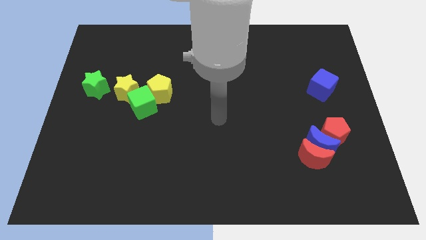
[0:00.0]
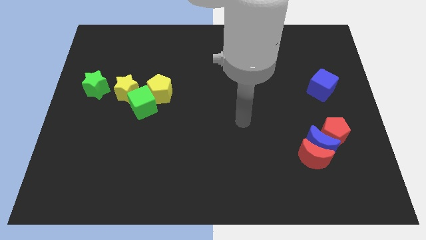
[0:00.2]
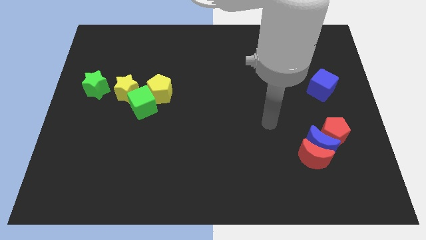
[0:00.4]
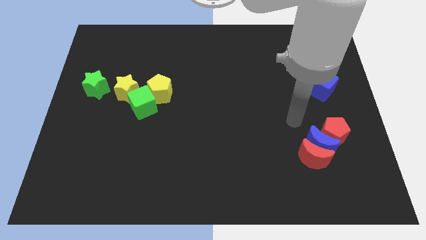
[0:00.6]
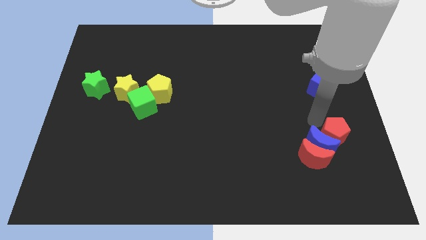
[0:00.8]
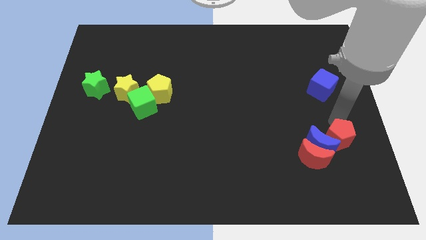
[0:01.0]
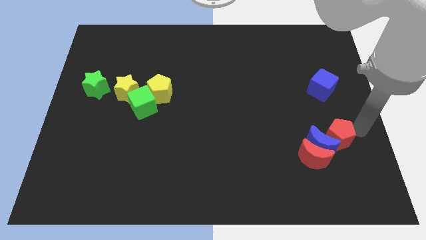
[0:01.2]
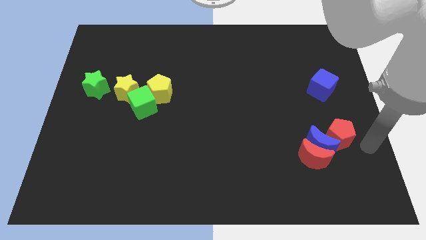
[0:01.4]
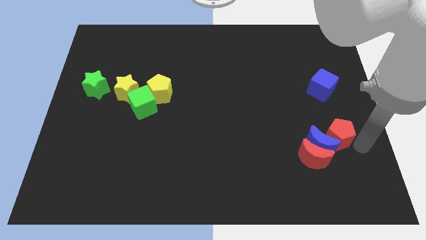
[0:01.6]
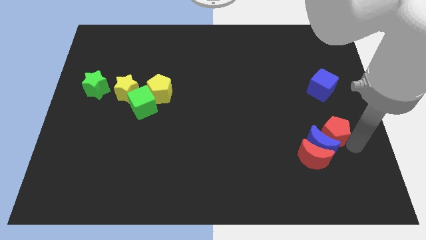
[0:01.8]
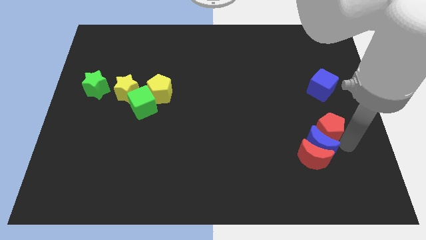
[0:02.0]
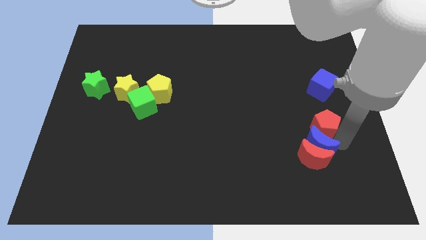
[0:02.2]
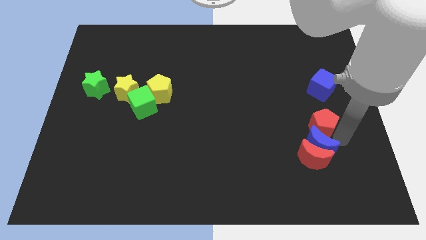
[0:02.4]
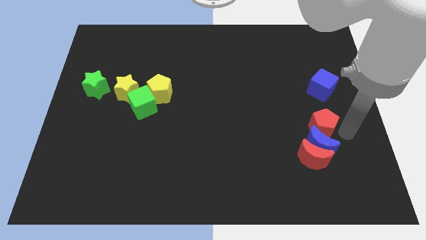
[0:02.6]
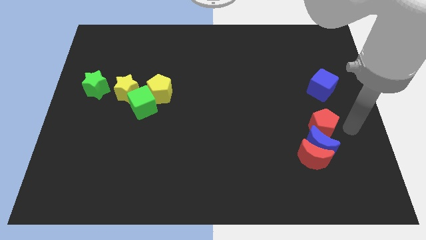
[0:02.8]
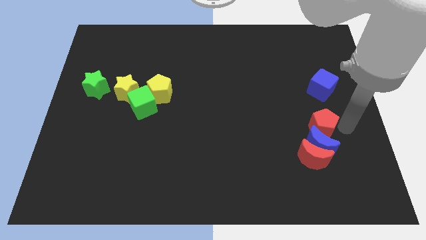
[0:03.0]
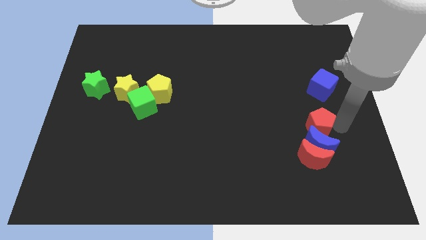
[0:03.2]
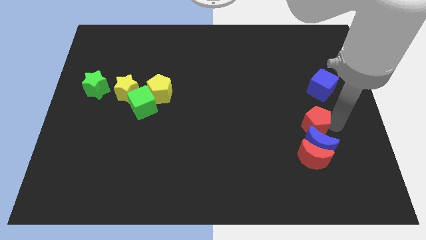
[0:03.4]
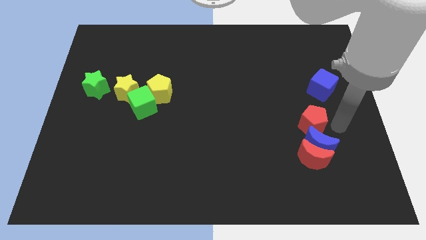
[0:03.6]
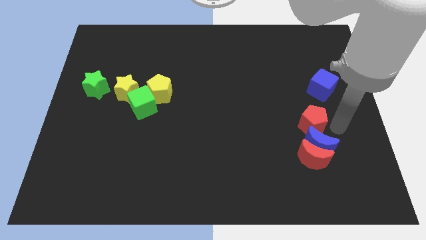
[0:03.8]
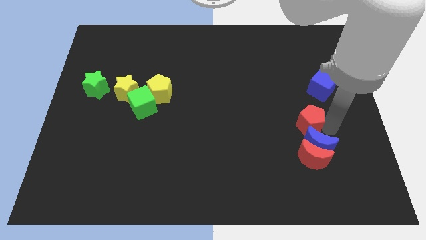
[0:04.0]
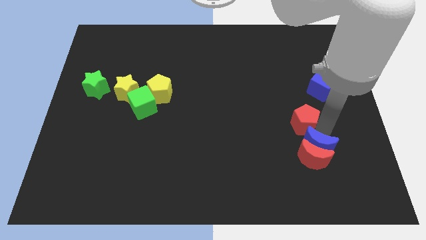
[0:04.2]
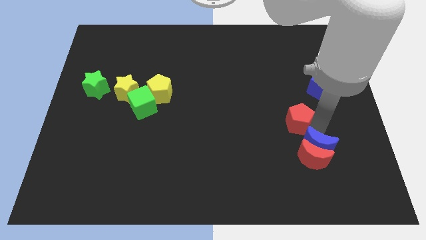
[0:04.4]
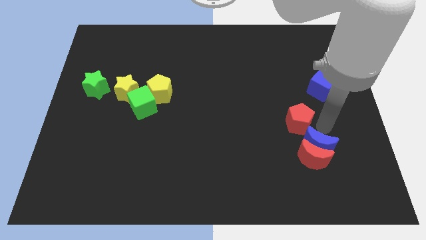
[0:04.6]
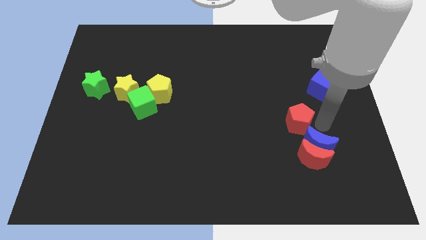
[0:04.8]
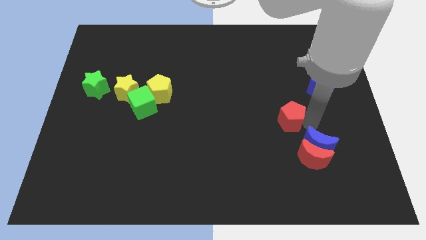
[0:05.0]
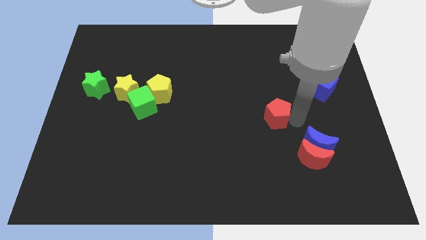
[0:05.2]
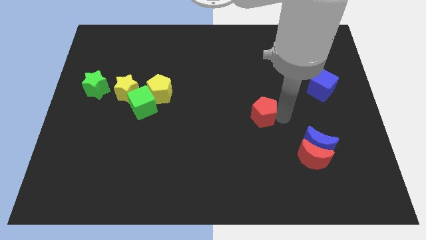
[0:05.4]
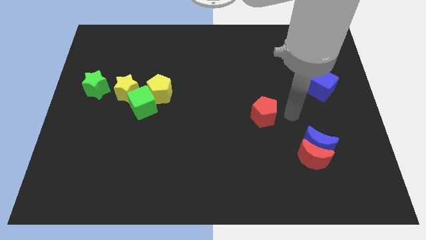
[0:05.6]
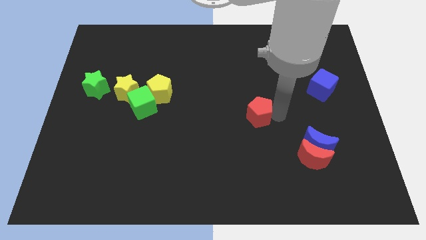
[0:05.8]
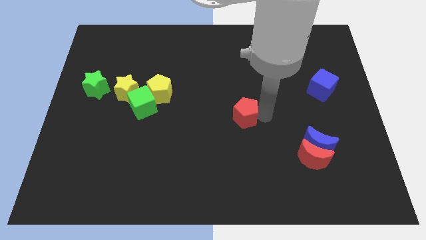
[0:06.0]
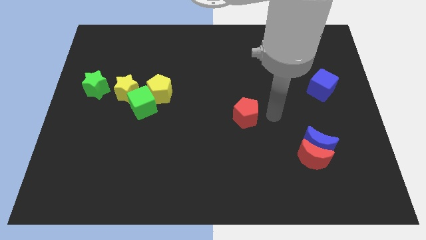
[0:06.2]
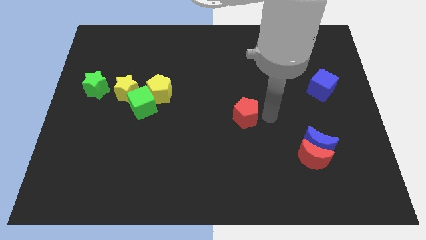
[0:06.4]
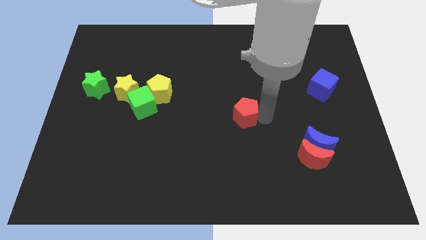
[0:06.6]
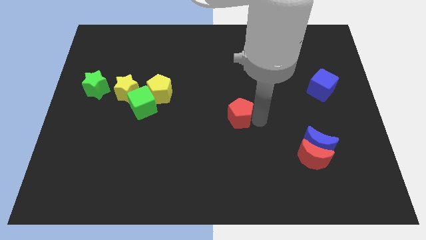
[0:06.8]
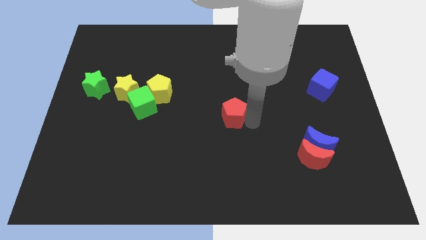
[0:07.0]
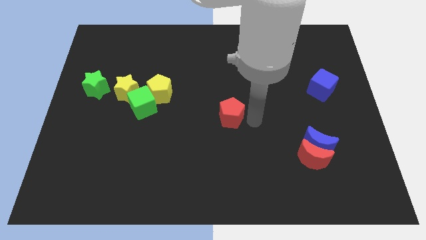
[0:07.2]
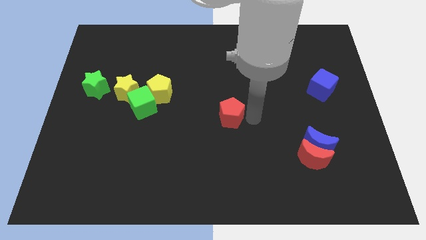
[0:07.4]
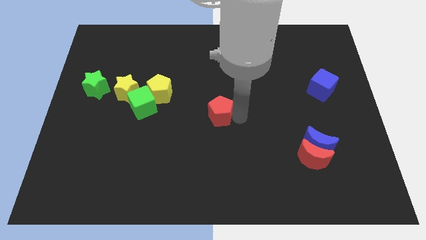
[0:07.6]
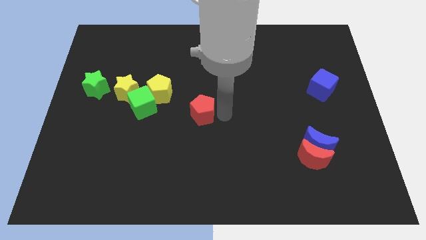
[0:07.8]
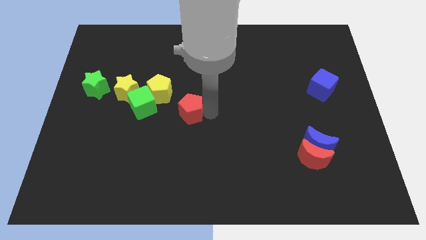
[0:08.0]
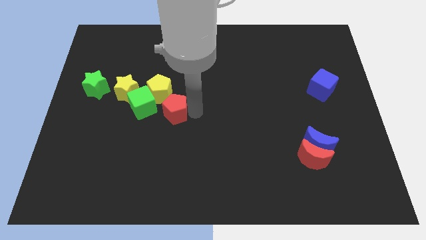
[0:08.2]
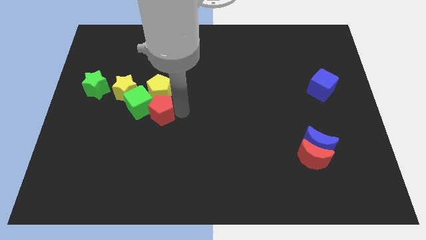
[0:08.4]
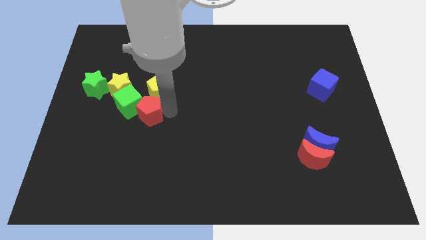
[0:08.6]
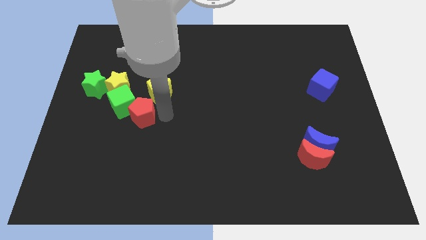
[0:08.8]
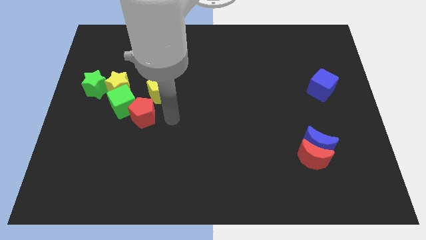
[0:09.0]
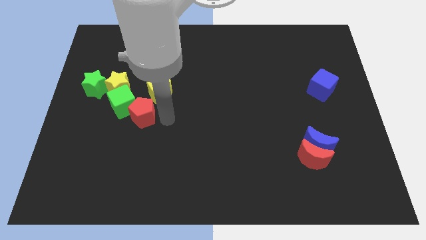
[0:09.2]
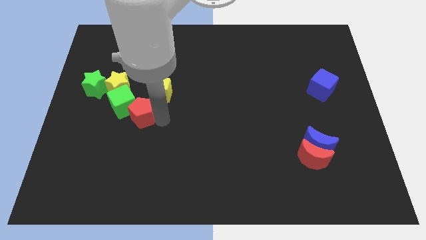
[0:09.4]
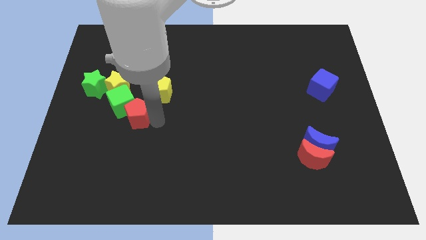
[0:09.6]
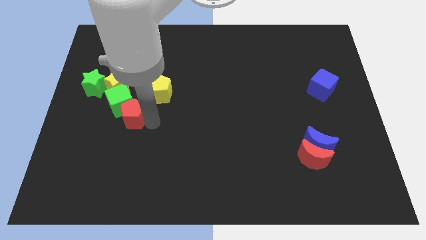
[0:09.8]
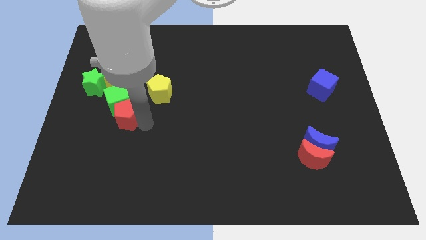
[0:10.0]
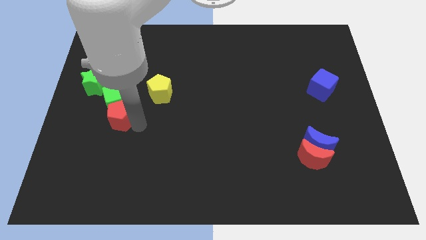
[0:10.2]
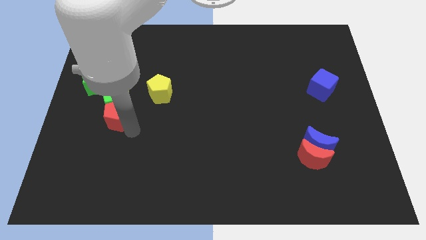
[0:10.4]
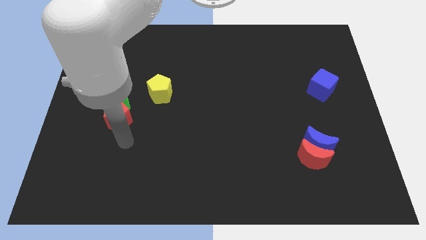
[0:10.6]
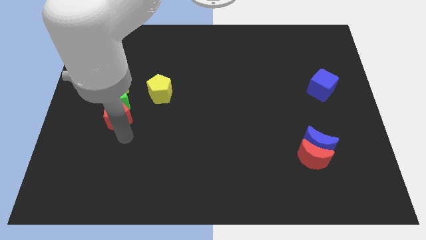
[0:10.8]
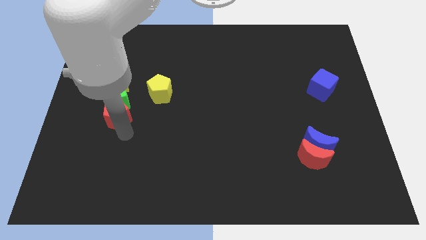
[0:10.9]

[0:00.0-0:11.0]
slide the red pentagon to the bottom right of the green star
